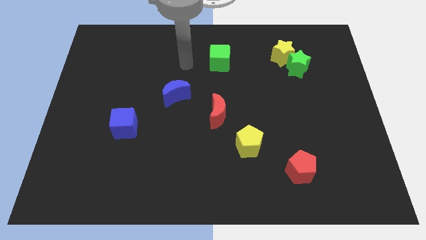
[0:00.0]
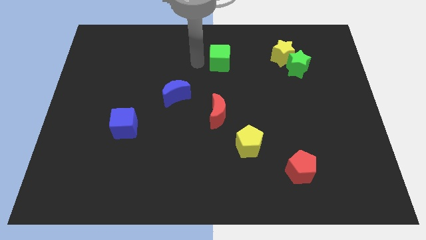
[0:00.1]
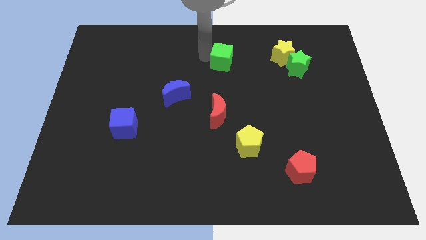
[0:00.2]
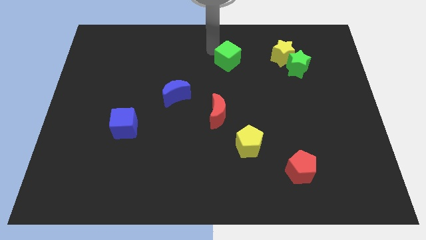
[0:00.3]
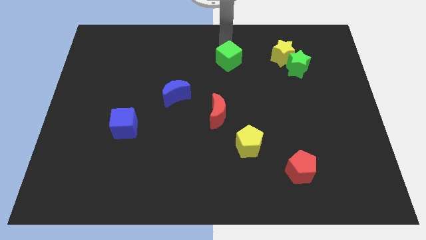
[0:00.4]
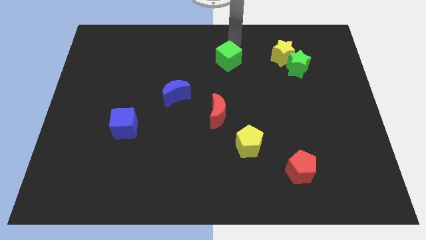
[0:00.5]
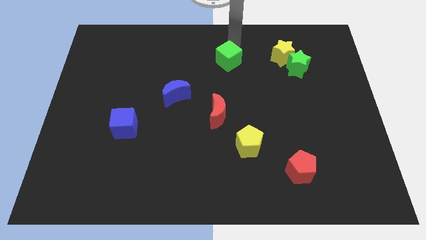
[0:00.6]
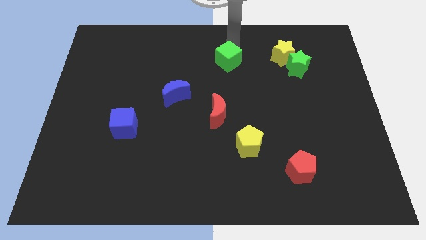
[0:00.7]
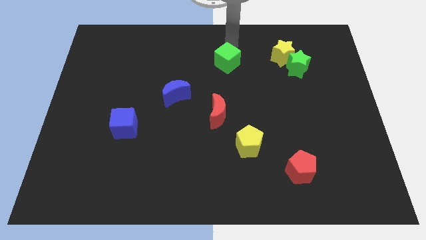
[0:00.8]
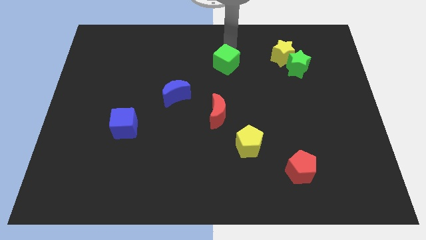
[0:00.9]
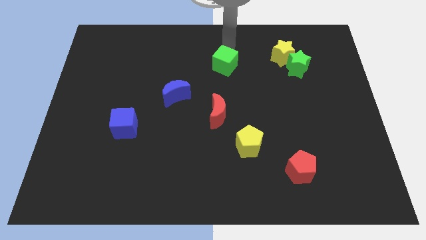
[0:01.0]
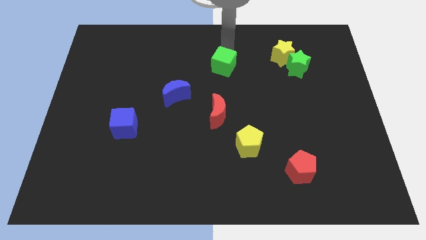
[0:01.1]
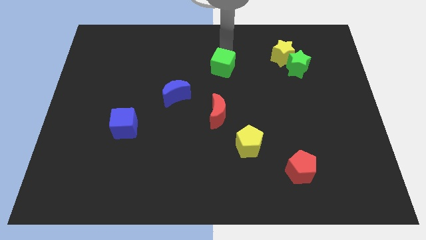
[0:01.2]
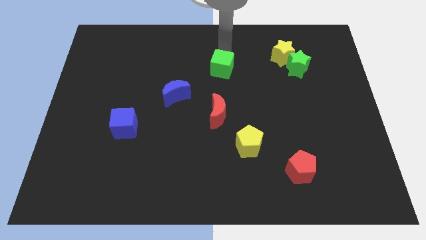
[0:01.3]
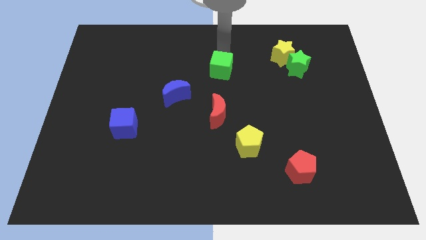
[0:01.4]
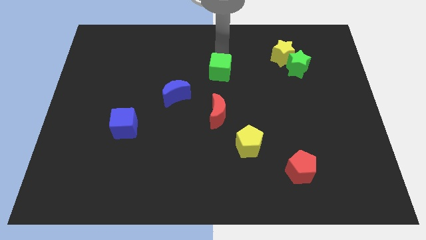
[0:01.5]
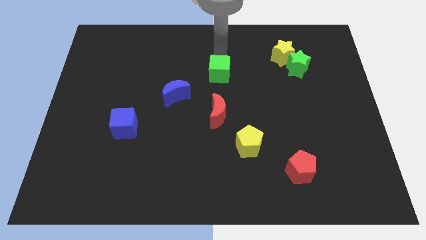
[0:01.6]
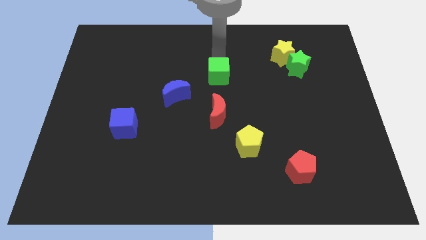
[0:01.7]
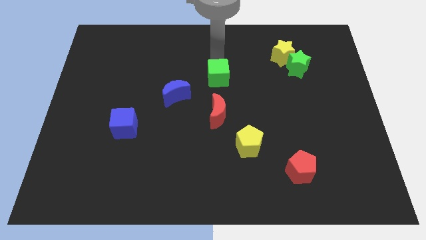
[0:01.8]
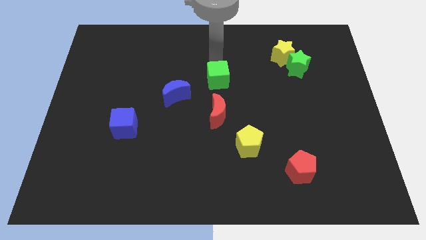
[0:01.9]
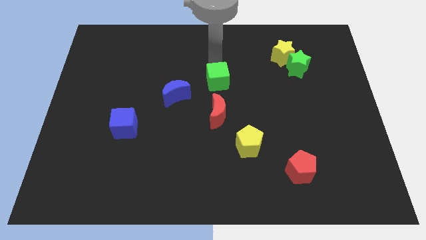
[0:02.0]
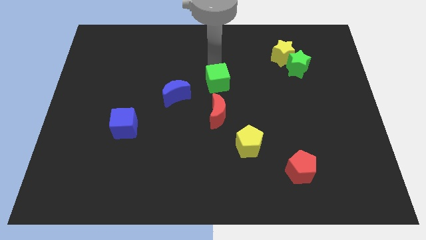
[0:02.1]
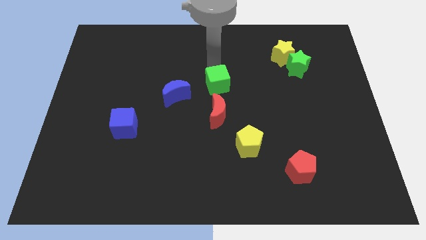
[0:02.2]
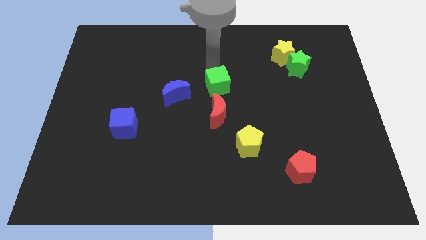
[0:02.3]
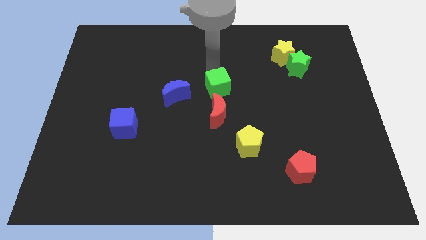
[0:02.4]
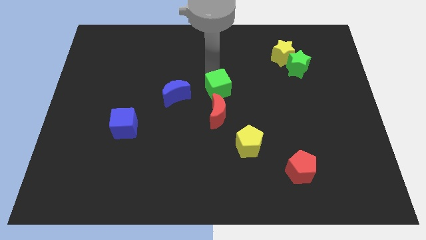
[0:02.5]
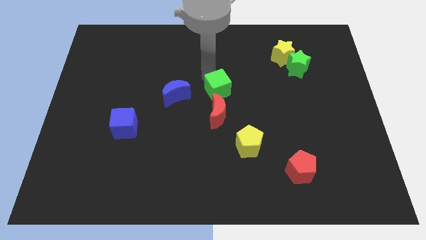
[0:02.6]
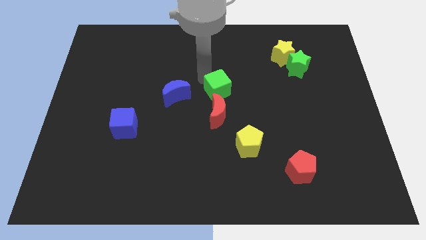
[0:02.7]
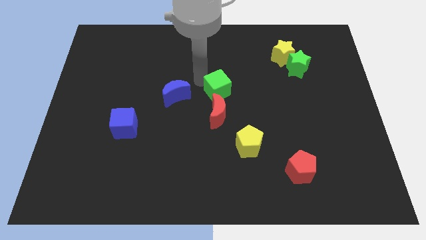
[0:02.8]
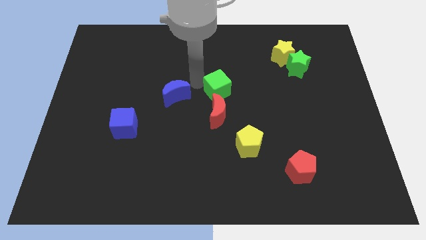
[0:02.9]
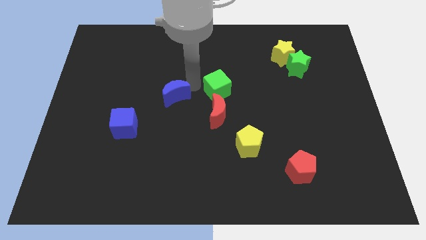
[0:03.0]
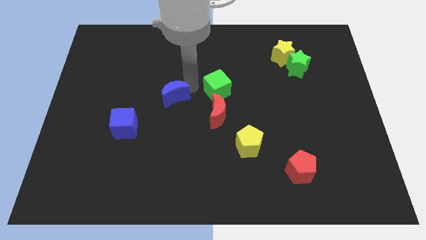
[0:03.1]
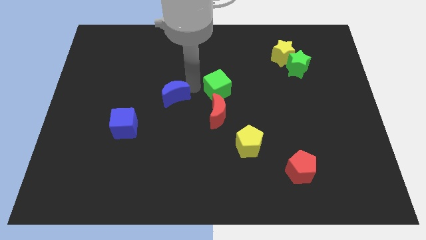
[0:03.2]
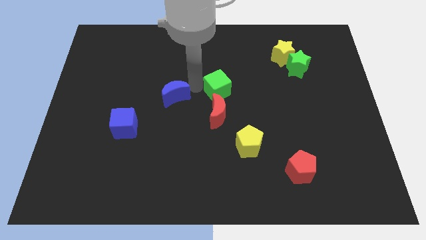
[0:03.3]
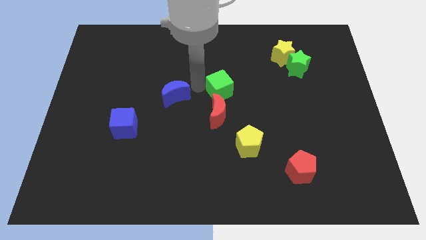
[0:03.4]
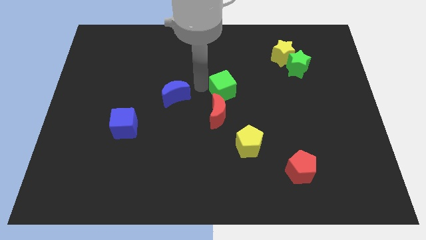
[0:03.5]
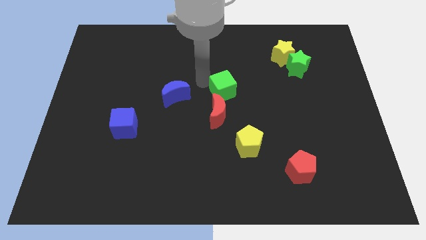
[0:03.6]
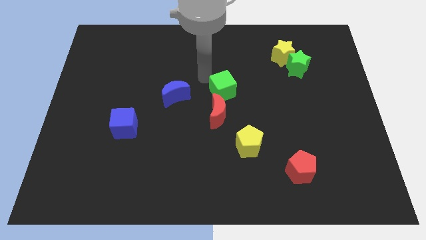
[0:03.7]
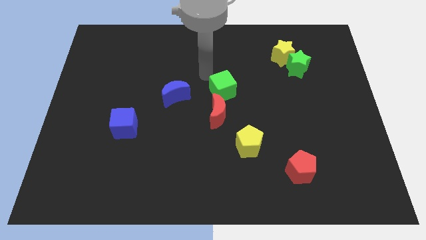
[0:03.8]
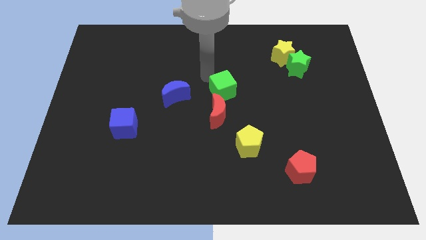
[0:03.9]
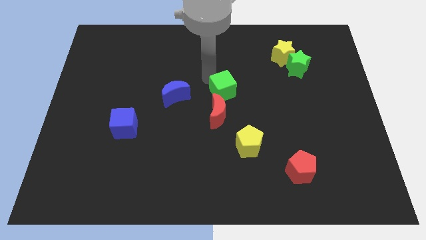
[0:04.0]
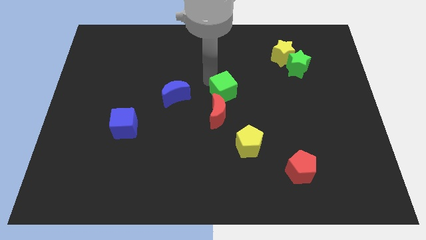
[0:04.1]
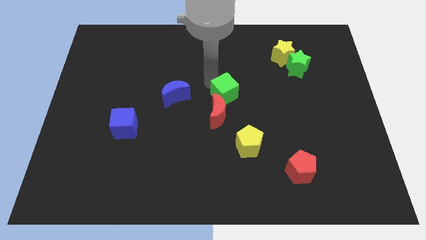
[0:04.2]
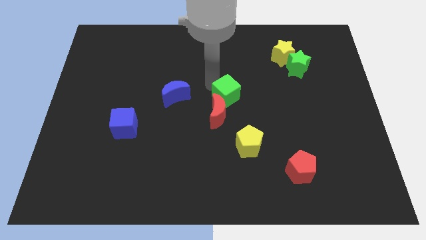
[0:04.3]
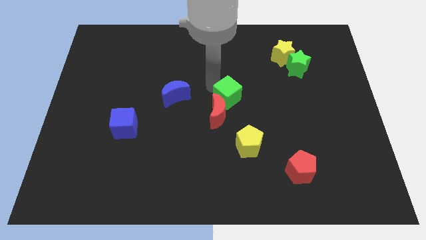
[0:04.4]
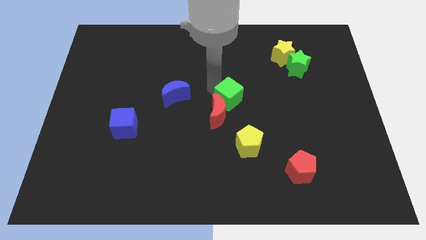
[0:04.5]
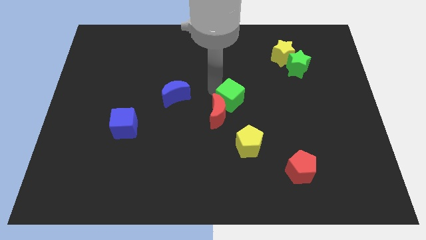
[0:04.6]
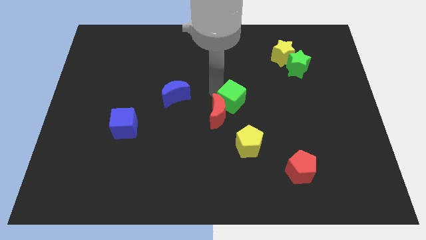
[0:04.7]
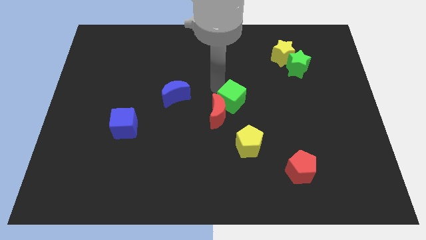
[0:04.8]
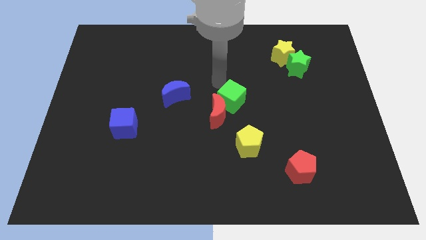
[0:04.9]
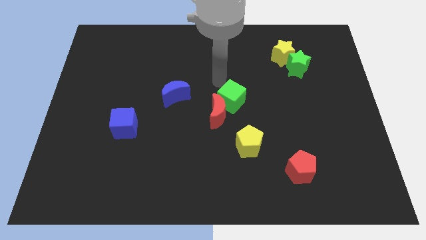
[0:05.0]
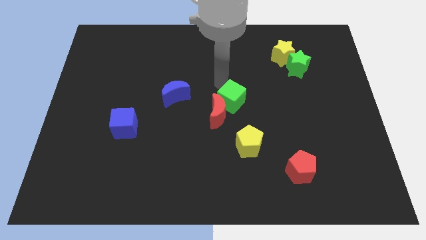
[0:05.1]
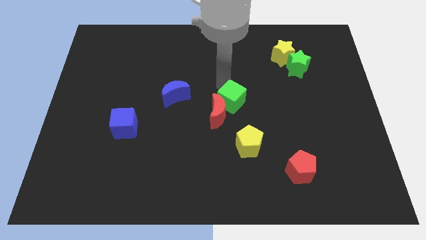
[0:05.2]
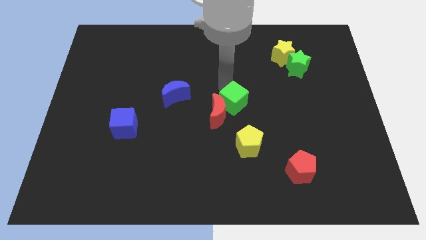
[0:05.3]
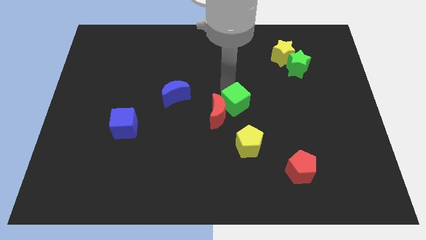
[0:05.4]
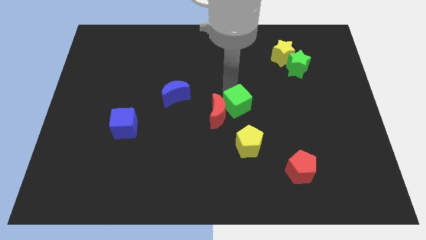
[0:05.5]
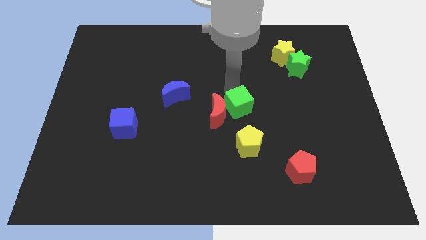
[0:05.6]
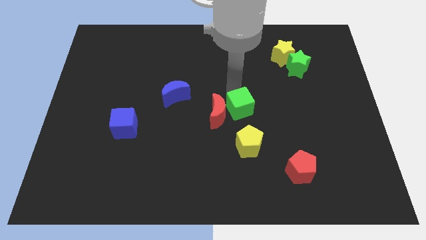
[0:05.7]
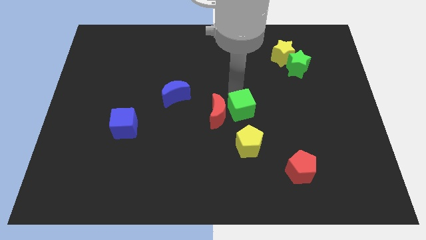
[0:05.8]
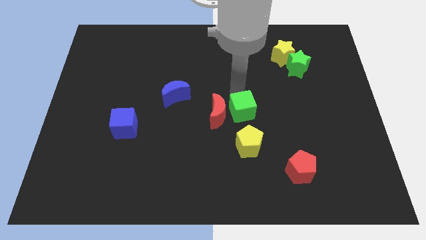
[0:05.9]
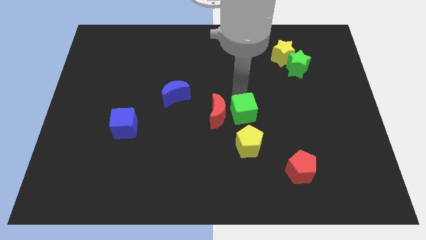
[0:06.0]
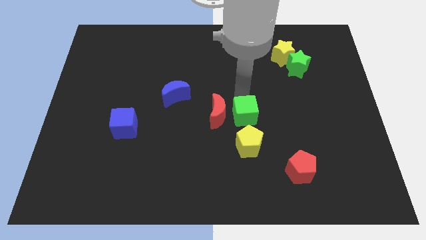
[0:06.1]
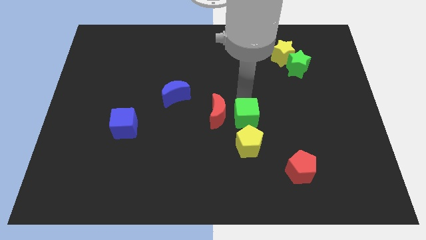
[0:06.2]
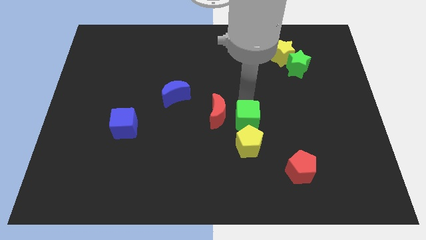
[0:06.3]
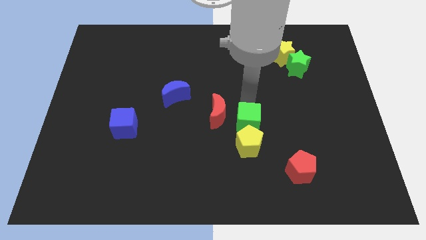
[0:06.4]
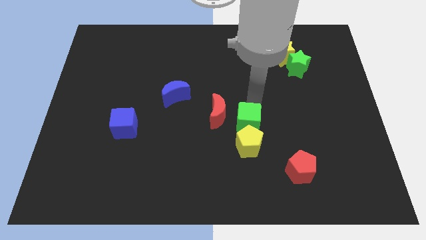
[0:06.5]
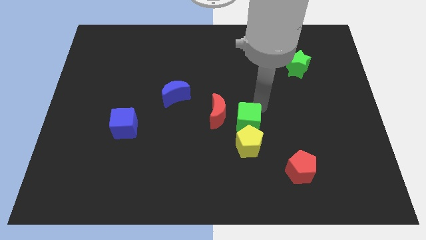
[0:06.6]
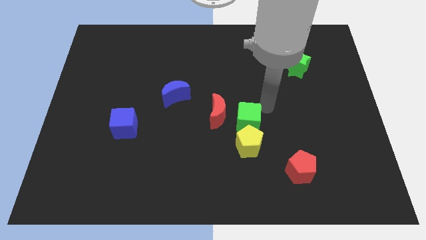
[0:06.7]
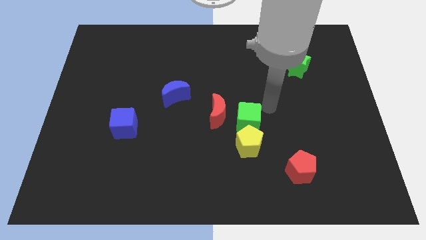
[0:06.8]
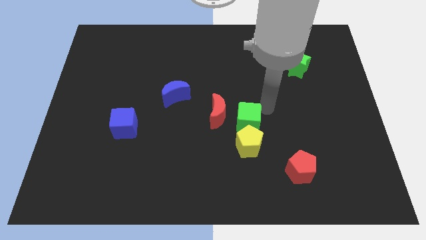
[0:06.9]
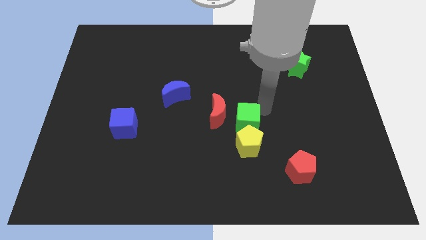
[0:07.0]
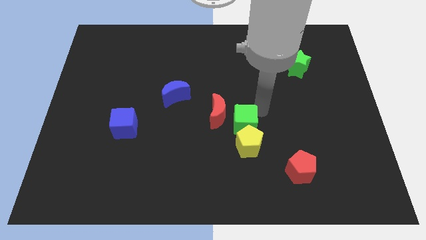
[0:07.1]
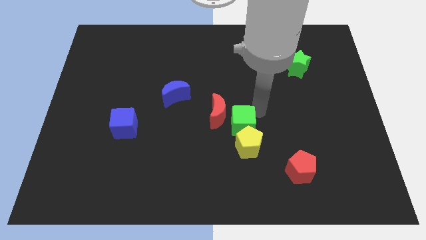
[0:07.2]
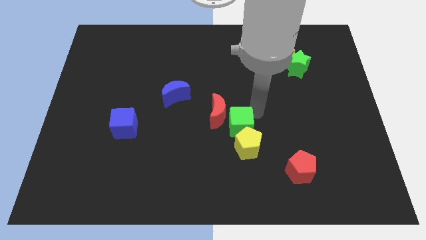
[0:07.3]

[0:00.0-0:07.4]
slide the green cube downwards

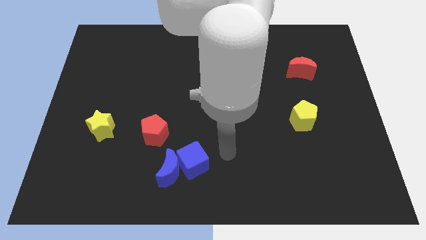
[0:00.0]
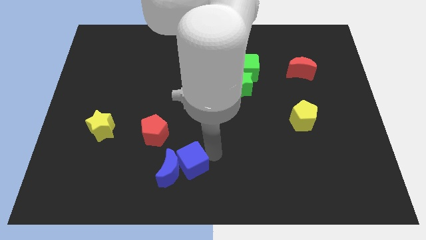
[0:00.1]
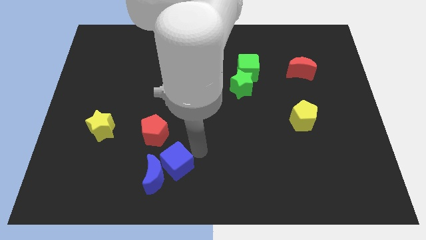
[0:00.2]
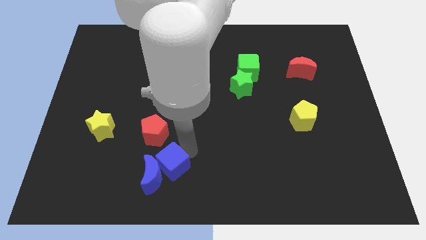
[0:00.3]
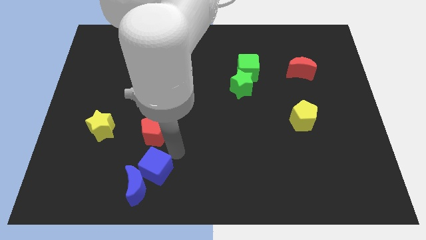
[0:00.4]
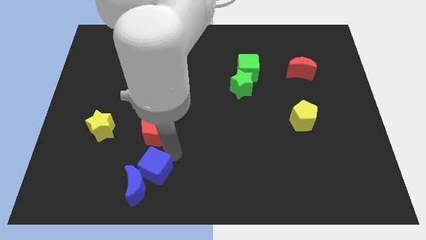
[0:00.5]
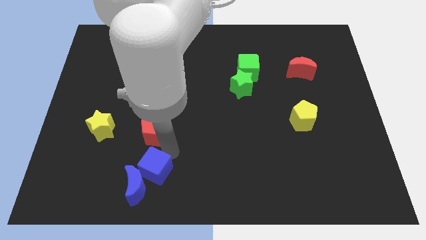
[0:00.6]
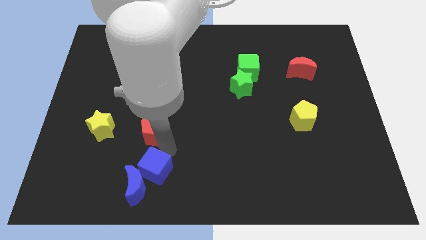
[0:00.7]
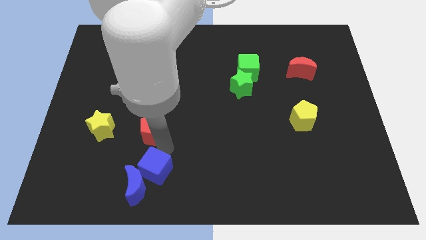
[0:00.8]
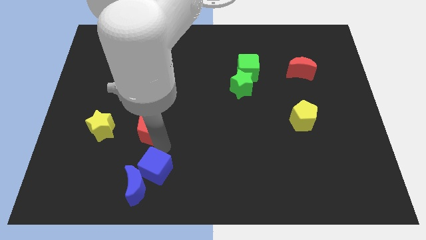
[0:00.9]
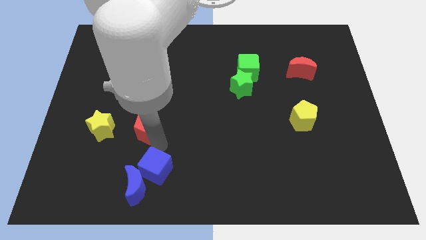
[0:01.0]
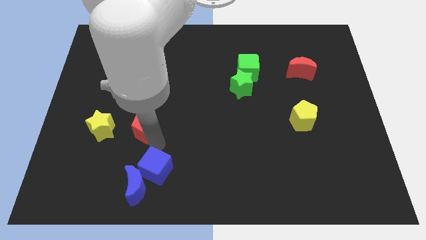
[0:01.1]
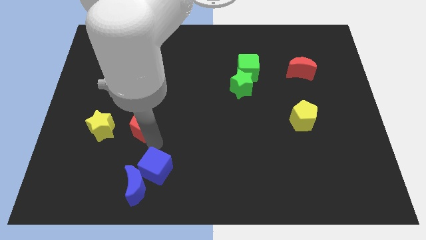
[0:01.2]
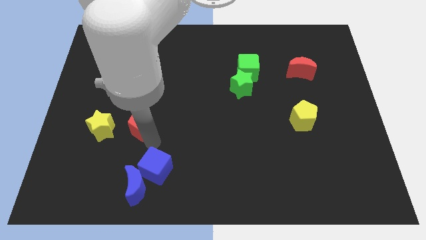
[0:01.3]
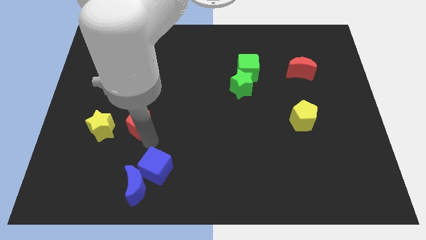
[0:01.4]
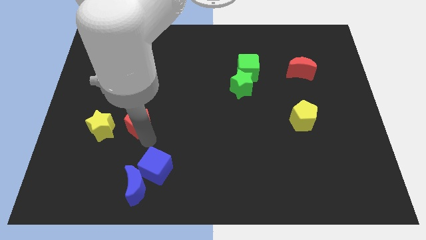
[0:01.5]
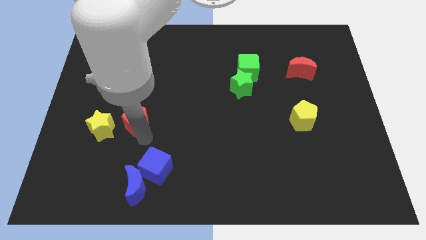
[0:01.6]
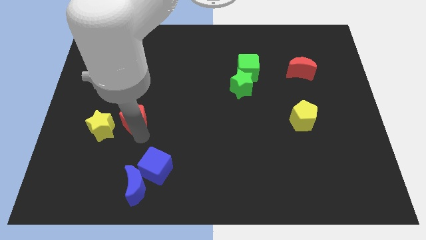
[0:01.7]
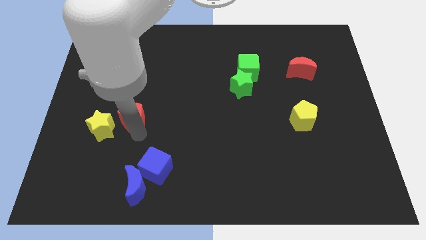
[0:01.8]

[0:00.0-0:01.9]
slide the red pentagon upwards and then left a bit
